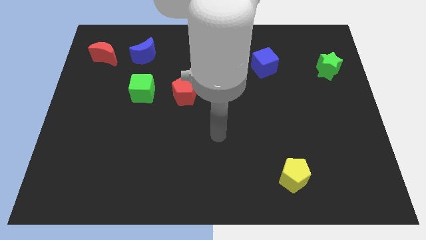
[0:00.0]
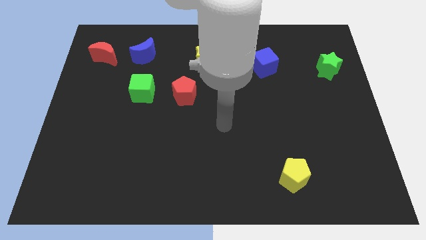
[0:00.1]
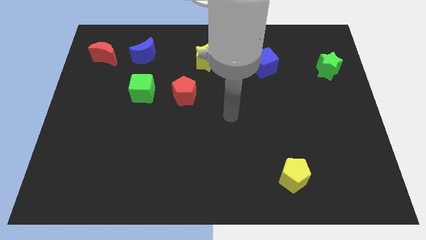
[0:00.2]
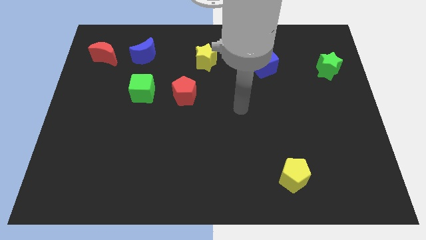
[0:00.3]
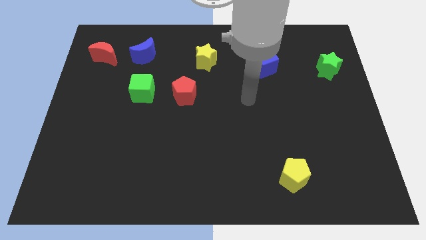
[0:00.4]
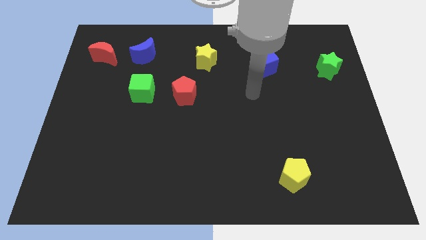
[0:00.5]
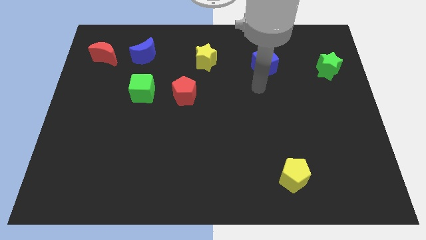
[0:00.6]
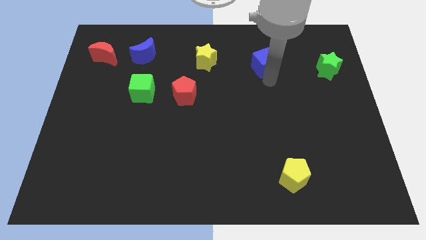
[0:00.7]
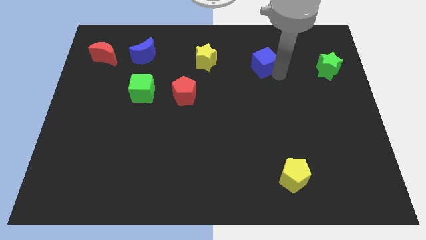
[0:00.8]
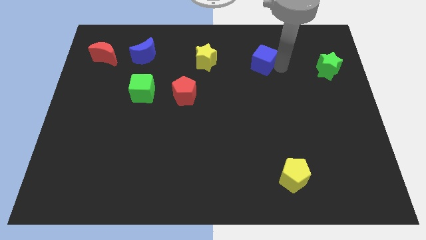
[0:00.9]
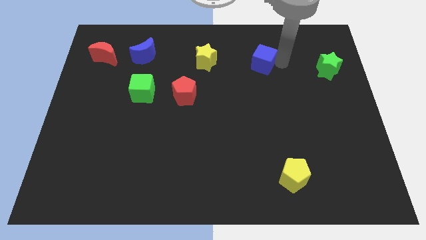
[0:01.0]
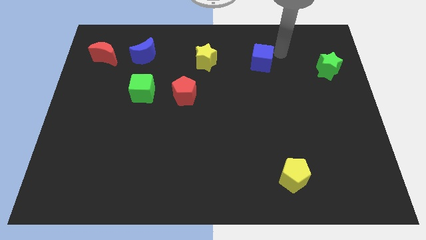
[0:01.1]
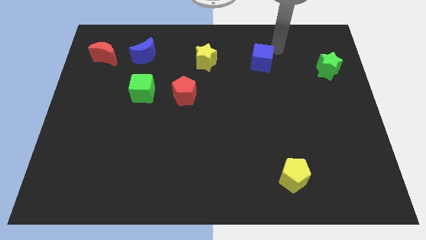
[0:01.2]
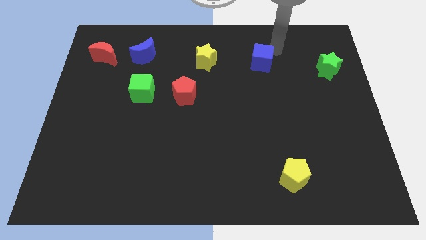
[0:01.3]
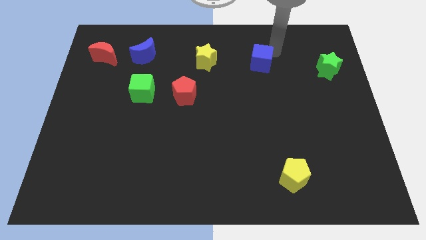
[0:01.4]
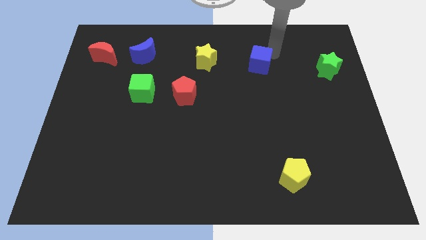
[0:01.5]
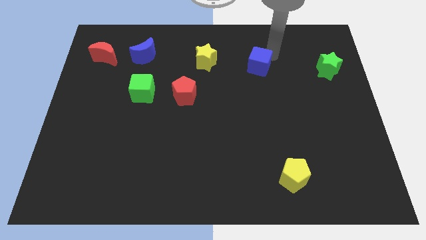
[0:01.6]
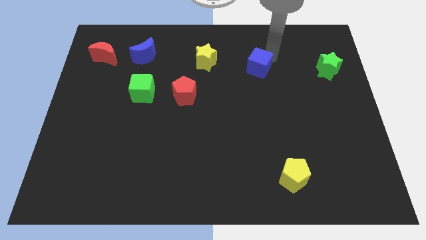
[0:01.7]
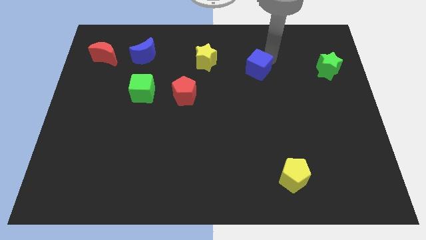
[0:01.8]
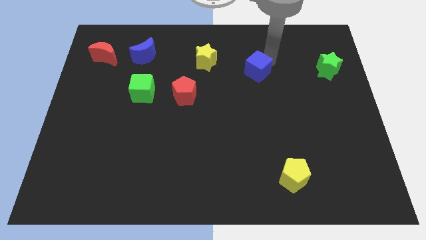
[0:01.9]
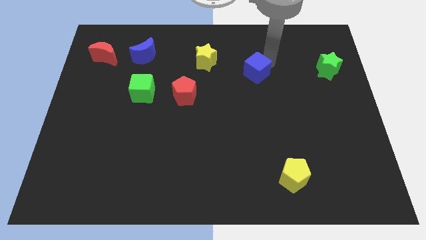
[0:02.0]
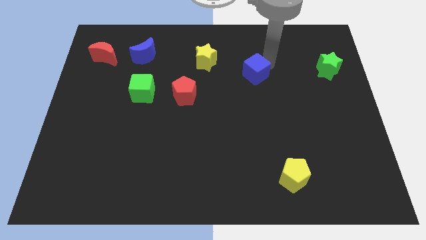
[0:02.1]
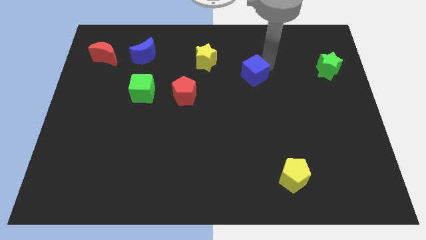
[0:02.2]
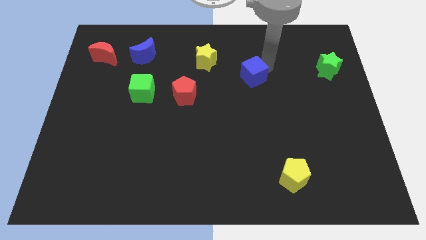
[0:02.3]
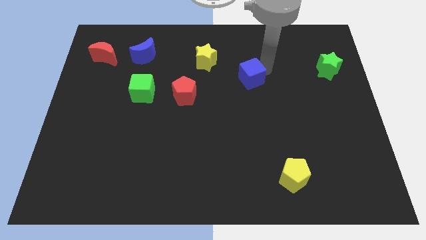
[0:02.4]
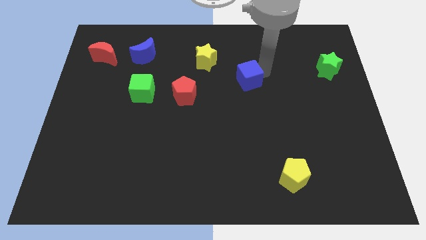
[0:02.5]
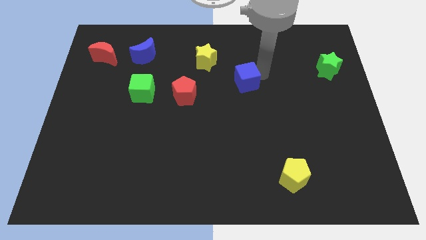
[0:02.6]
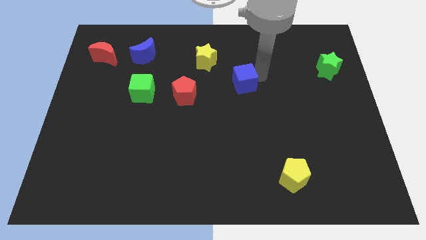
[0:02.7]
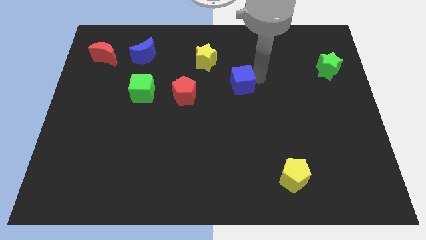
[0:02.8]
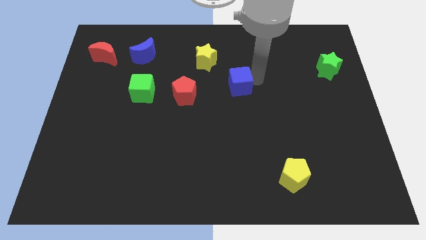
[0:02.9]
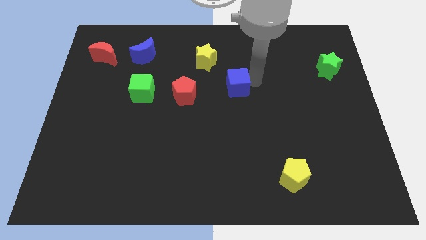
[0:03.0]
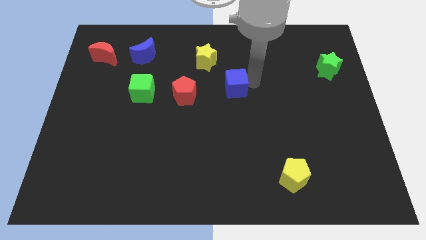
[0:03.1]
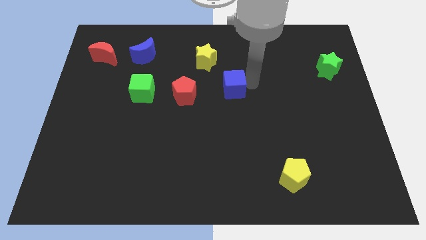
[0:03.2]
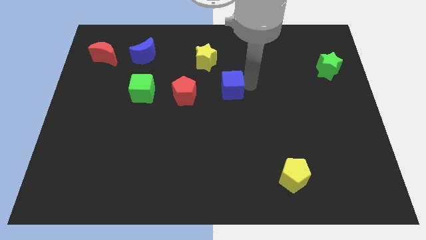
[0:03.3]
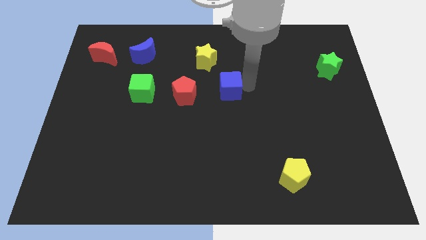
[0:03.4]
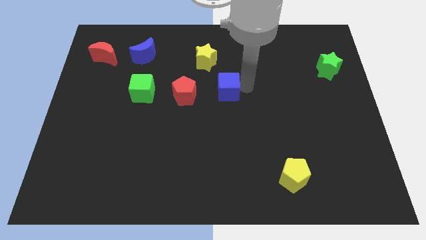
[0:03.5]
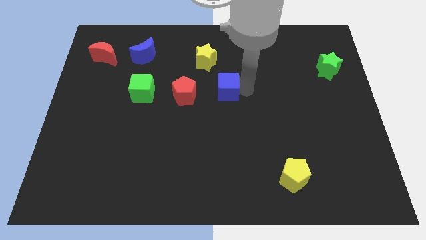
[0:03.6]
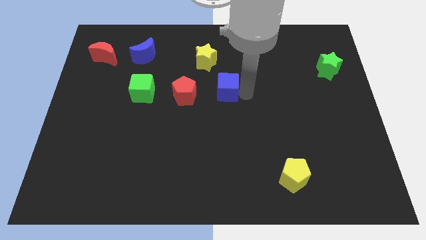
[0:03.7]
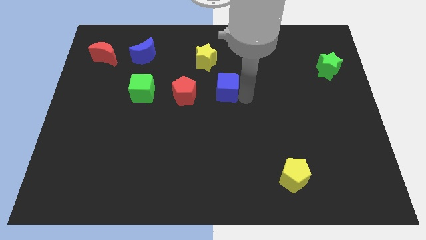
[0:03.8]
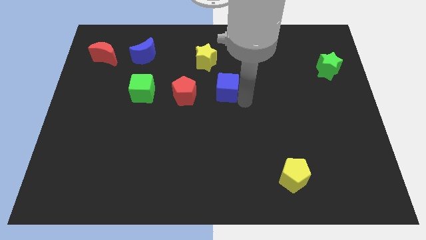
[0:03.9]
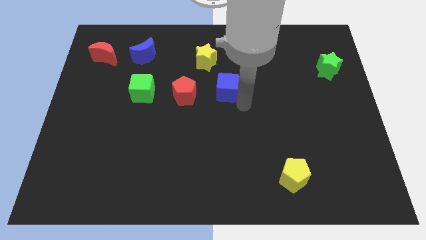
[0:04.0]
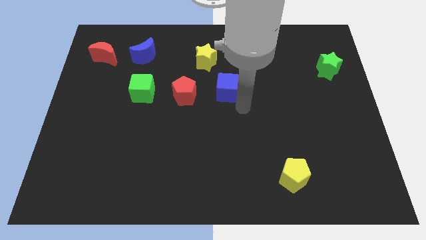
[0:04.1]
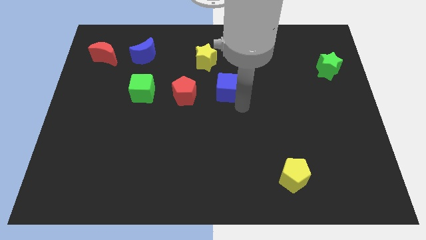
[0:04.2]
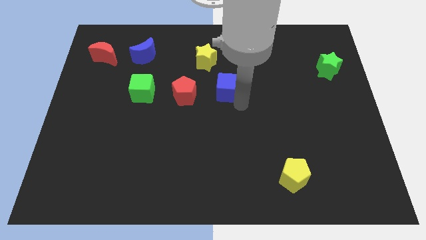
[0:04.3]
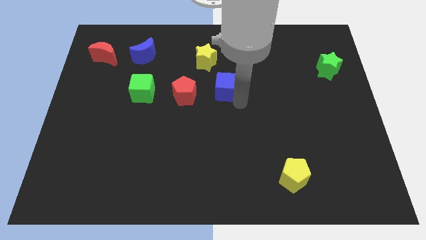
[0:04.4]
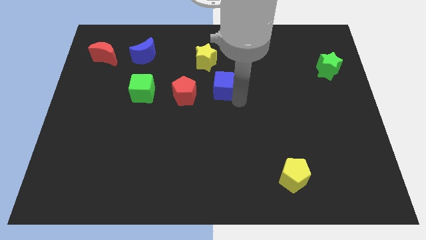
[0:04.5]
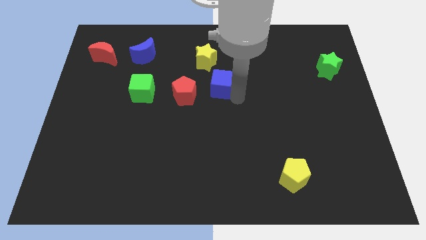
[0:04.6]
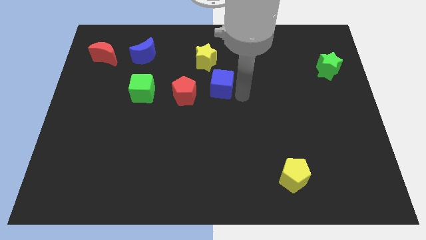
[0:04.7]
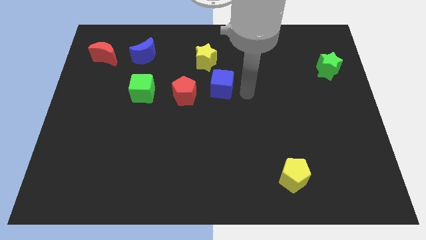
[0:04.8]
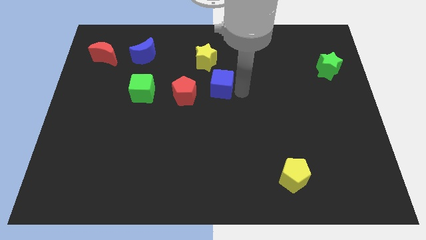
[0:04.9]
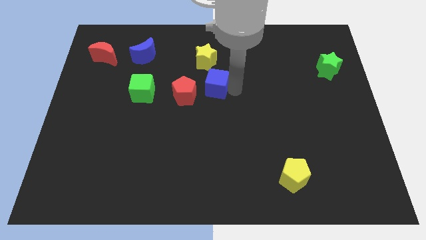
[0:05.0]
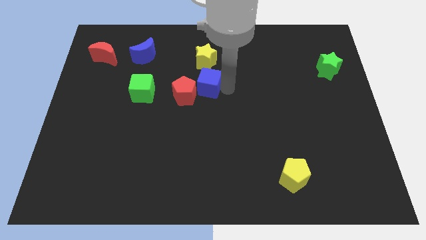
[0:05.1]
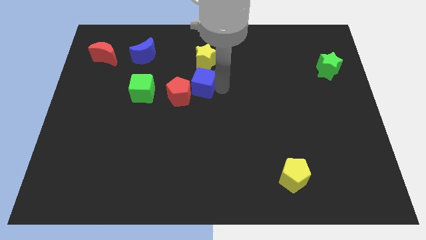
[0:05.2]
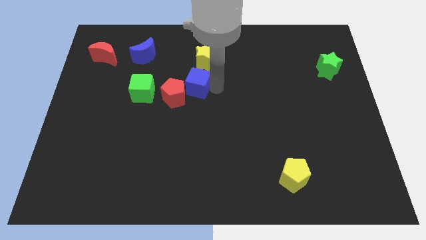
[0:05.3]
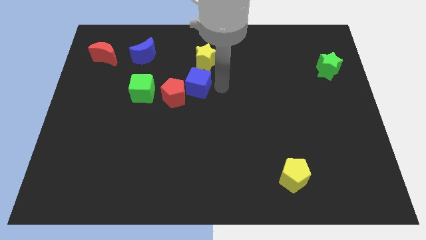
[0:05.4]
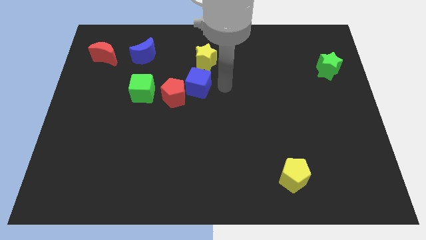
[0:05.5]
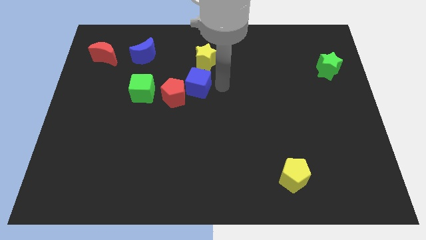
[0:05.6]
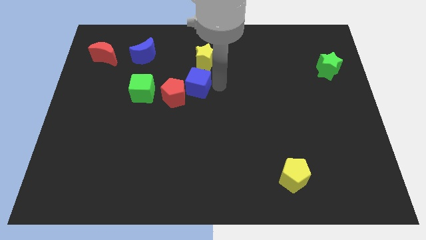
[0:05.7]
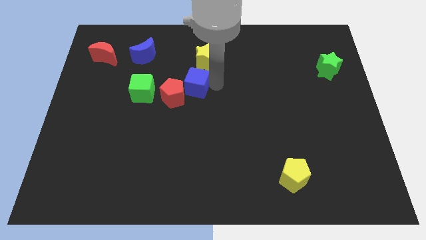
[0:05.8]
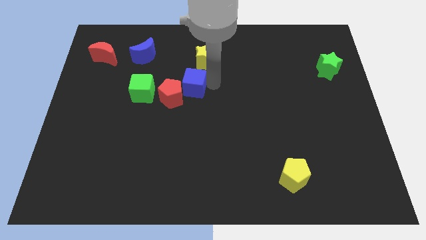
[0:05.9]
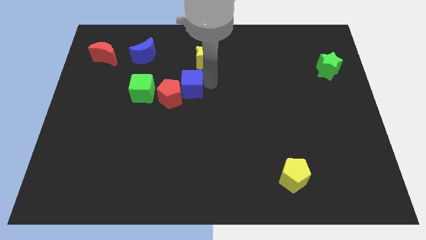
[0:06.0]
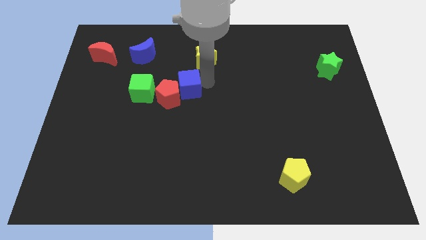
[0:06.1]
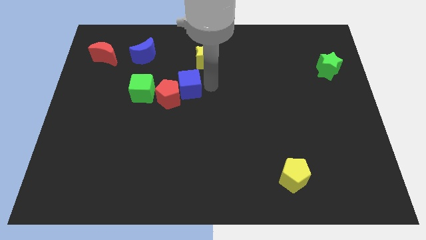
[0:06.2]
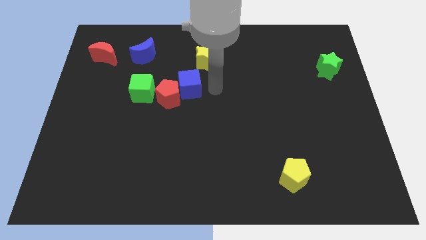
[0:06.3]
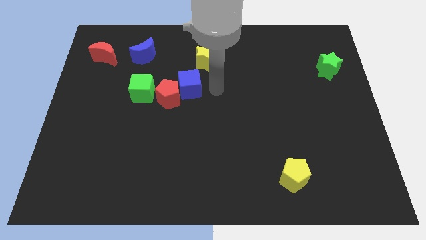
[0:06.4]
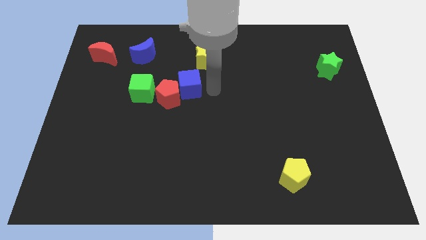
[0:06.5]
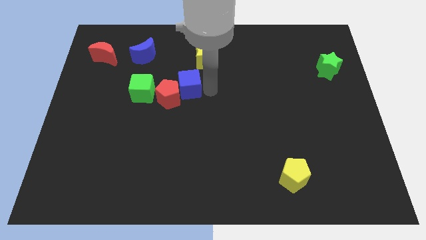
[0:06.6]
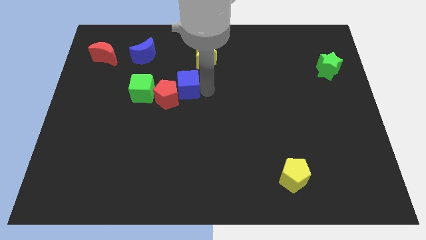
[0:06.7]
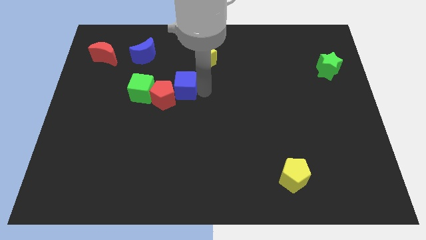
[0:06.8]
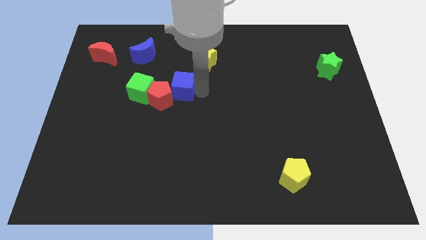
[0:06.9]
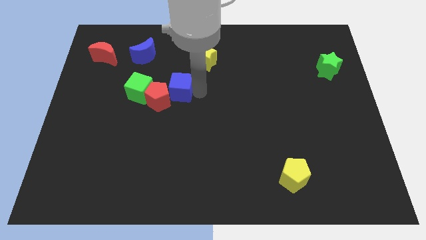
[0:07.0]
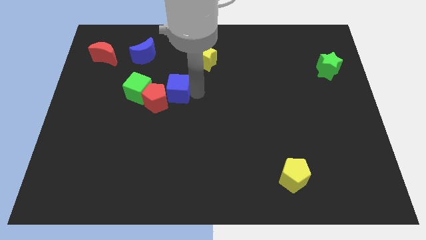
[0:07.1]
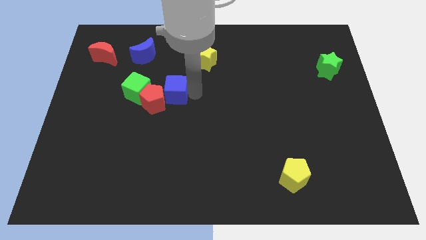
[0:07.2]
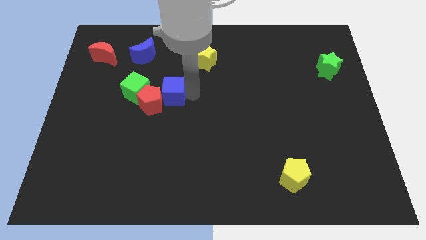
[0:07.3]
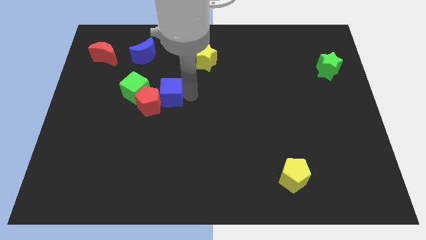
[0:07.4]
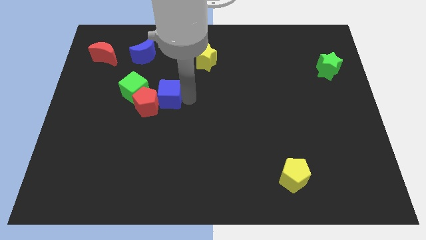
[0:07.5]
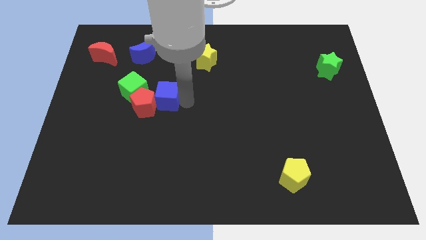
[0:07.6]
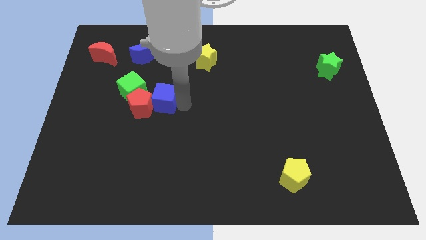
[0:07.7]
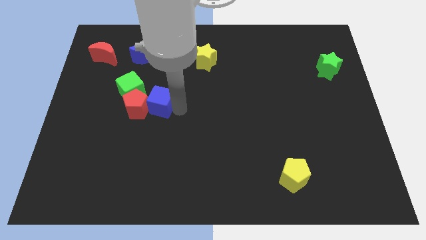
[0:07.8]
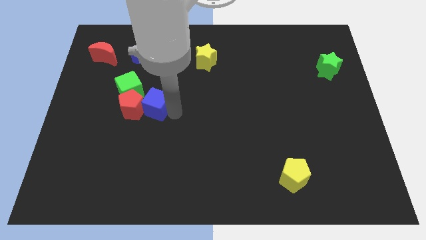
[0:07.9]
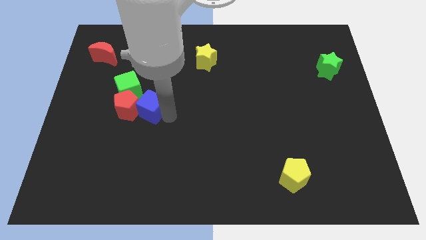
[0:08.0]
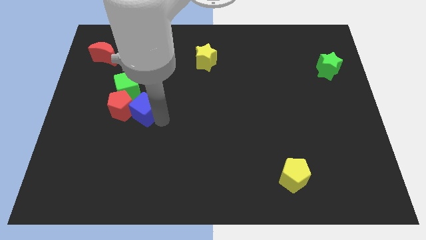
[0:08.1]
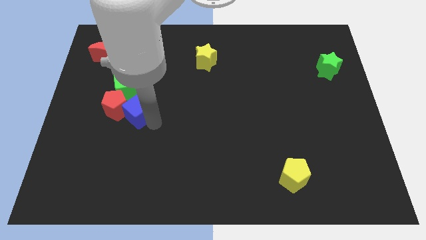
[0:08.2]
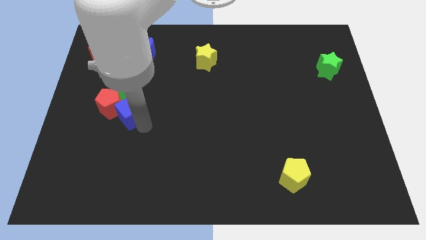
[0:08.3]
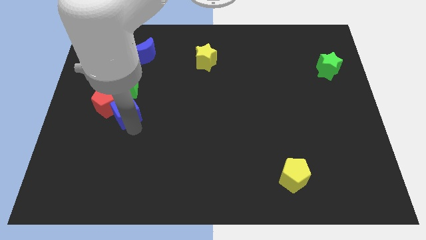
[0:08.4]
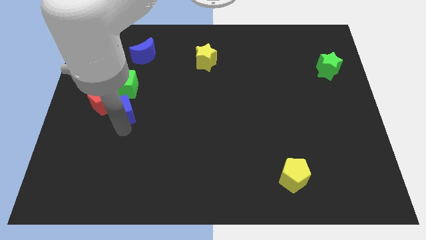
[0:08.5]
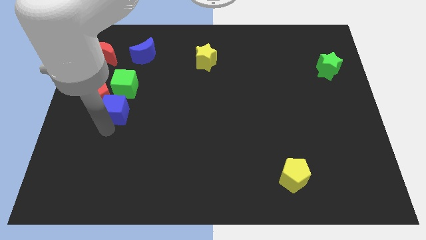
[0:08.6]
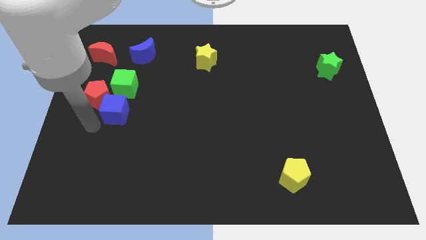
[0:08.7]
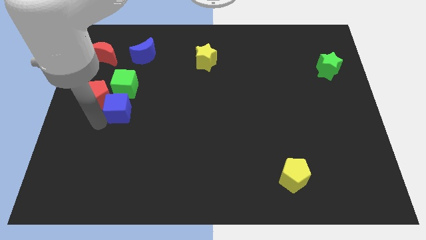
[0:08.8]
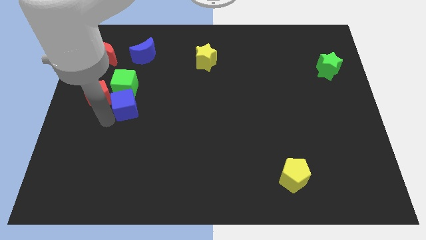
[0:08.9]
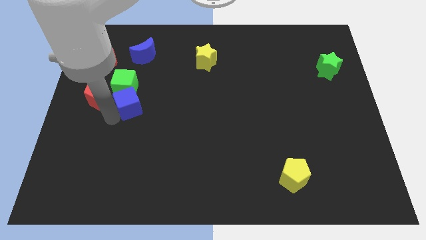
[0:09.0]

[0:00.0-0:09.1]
put the blue cube close to the green cube
